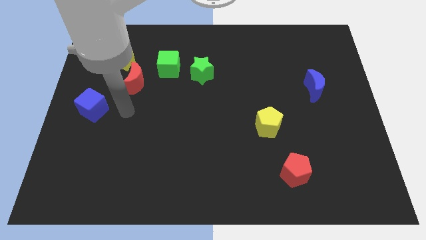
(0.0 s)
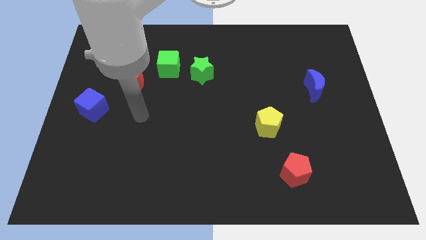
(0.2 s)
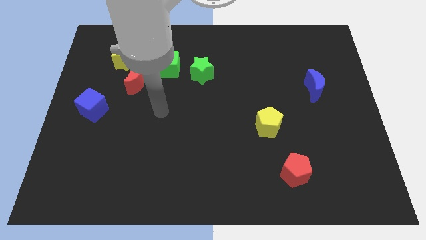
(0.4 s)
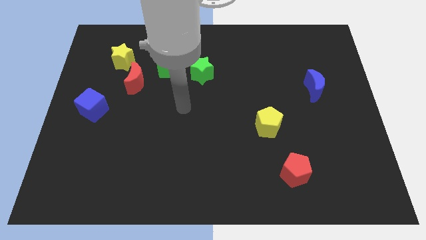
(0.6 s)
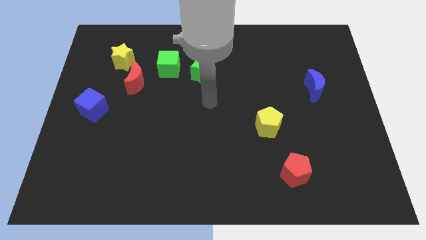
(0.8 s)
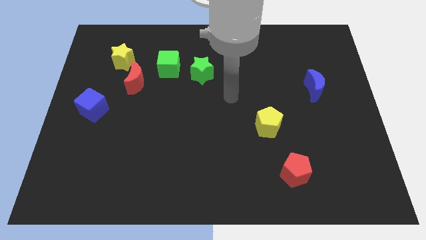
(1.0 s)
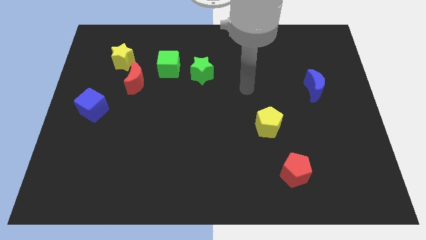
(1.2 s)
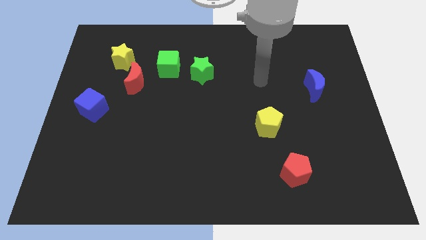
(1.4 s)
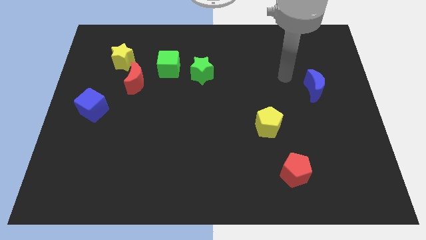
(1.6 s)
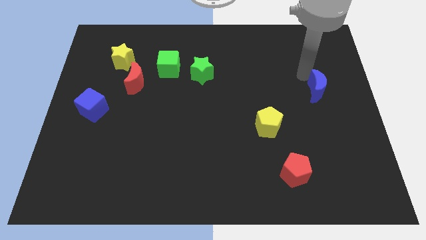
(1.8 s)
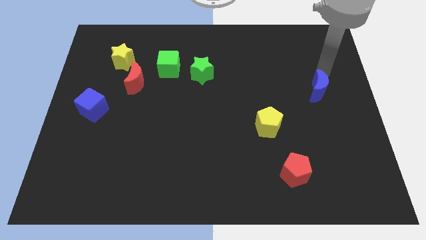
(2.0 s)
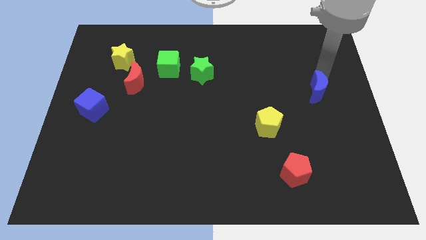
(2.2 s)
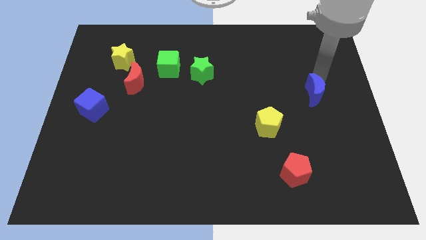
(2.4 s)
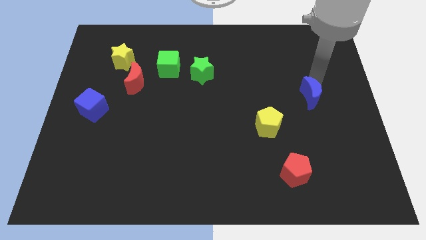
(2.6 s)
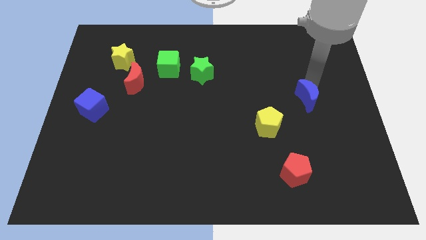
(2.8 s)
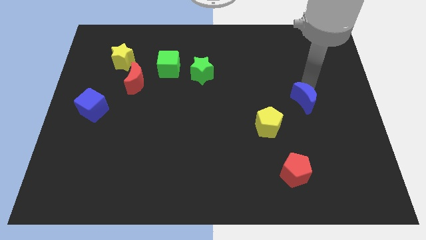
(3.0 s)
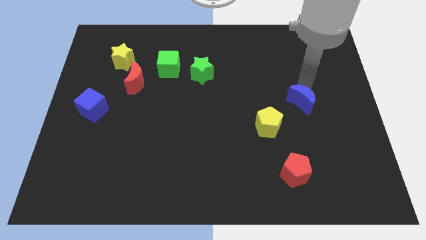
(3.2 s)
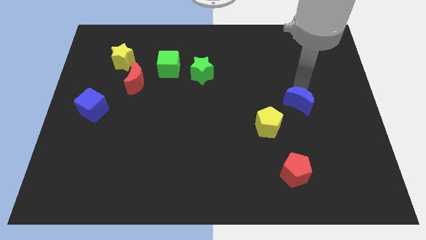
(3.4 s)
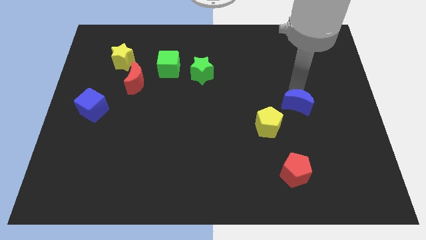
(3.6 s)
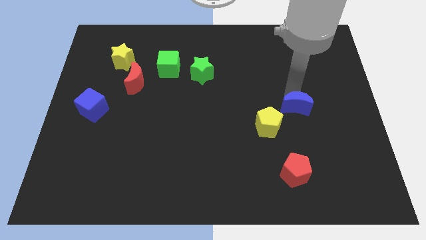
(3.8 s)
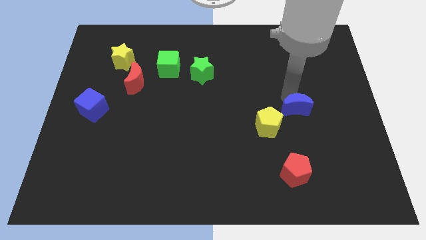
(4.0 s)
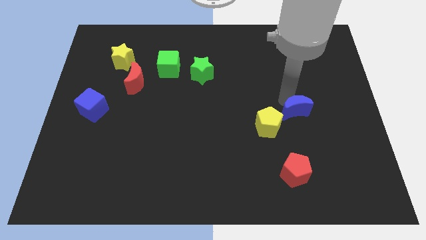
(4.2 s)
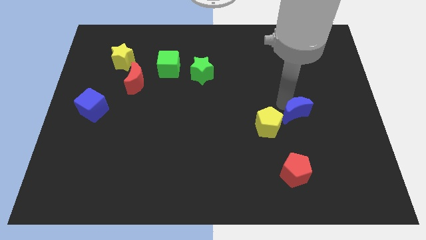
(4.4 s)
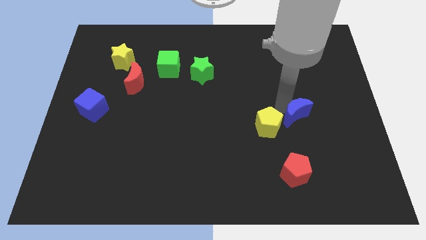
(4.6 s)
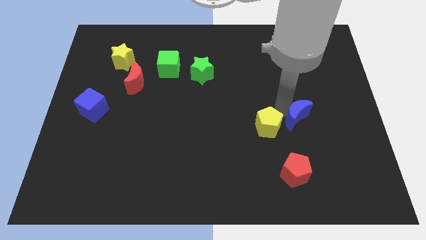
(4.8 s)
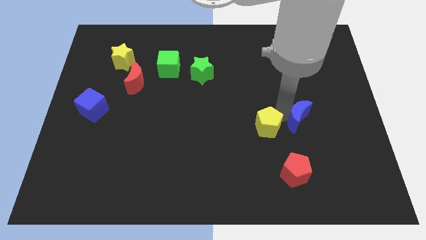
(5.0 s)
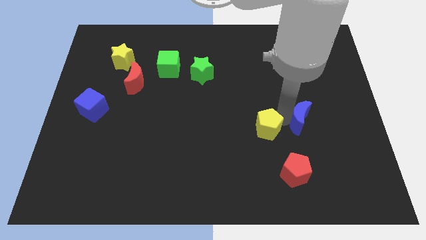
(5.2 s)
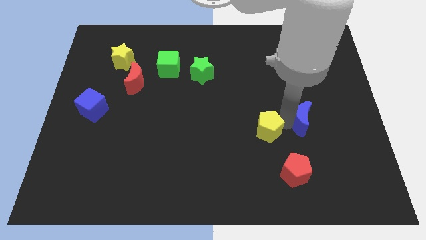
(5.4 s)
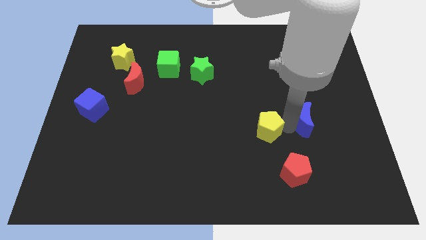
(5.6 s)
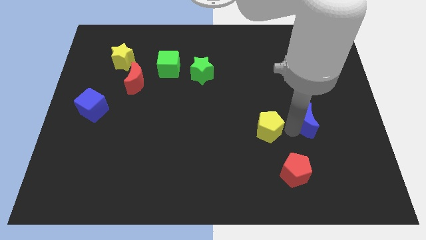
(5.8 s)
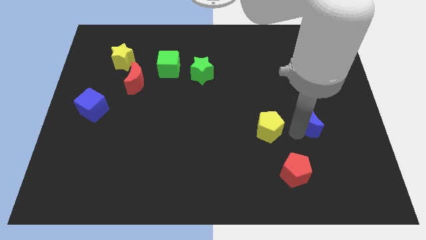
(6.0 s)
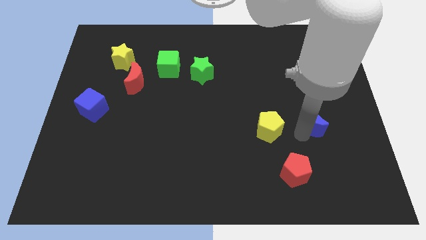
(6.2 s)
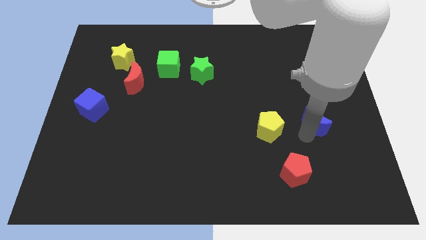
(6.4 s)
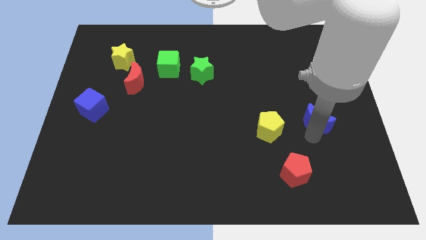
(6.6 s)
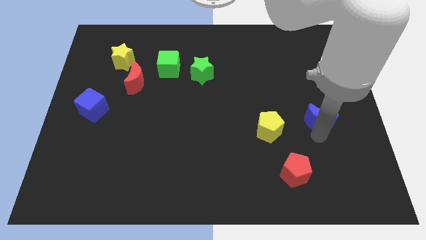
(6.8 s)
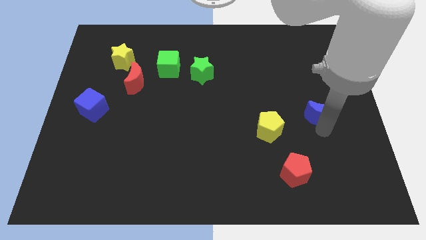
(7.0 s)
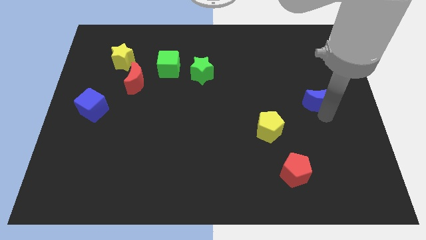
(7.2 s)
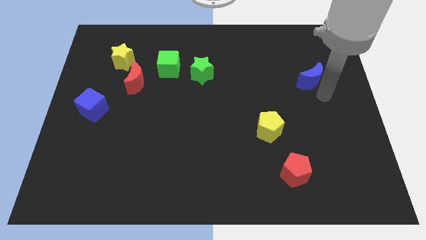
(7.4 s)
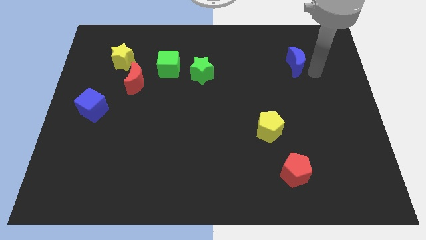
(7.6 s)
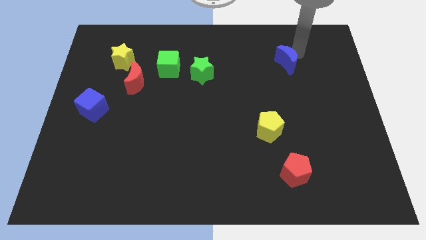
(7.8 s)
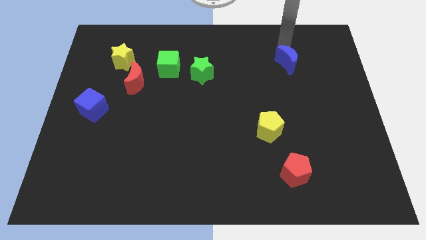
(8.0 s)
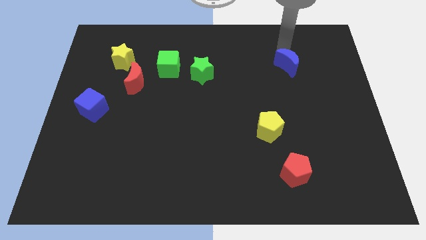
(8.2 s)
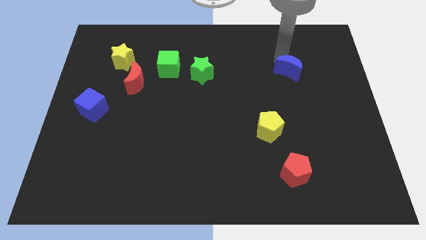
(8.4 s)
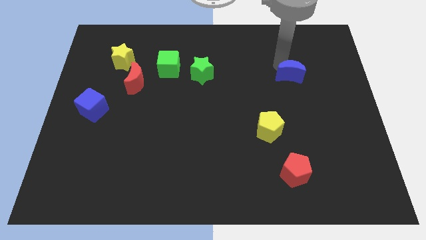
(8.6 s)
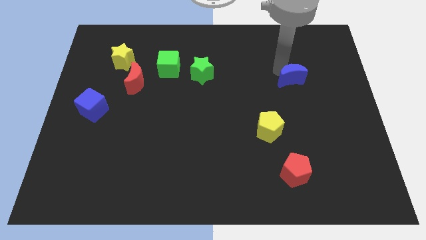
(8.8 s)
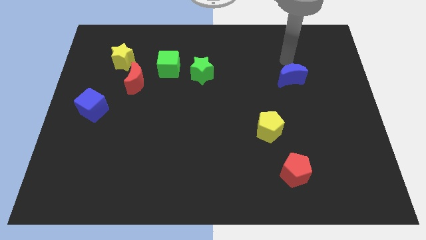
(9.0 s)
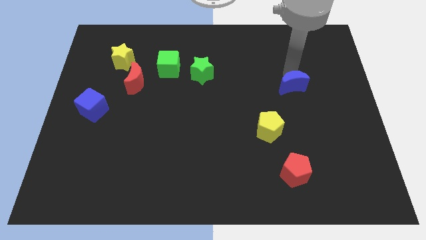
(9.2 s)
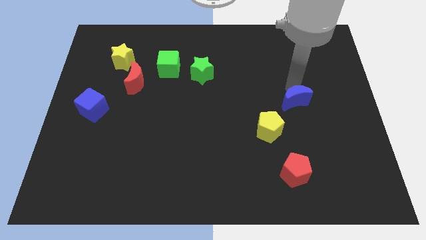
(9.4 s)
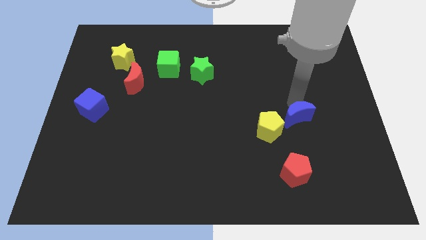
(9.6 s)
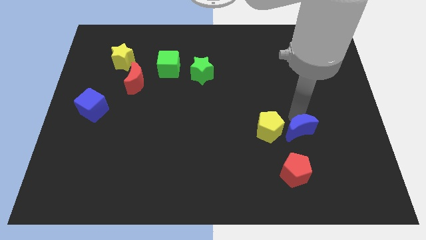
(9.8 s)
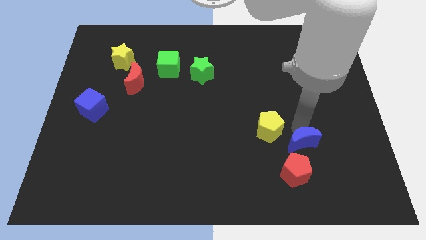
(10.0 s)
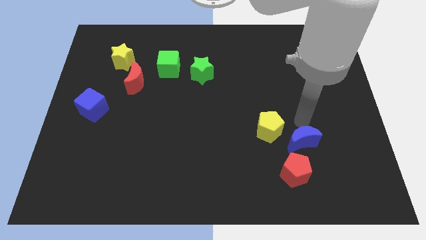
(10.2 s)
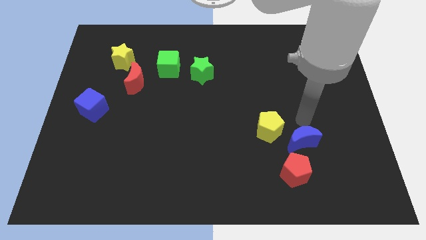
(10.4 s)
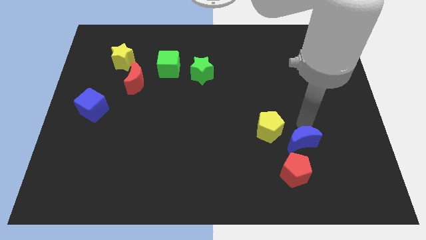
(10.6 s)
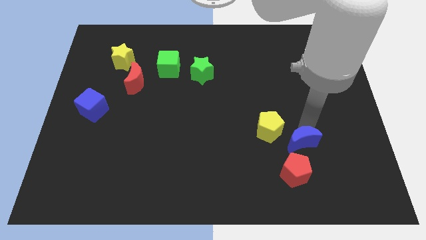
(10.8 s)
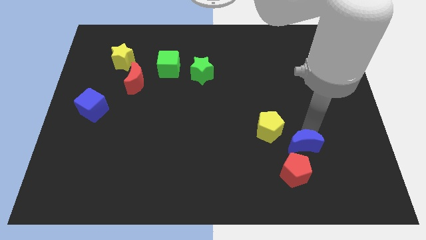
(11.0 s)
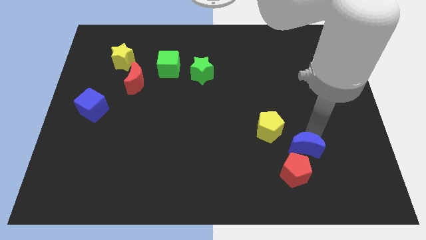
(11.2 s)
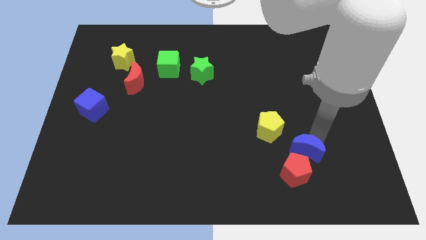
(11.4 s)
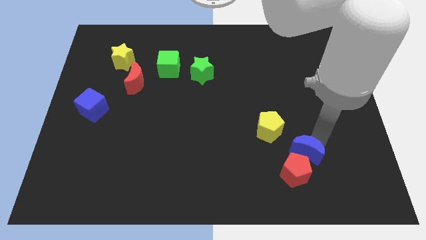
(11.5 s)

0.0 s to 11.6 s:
slide the blue moon towards the red pentagon

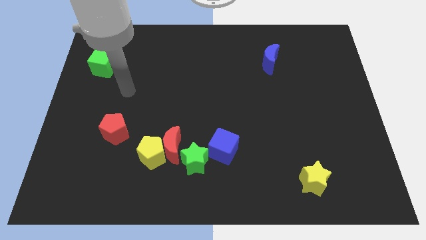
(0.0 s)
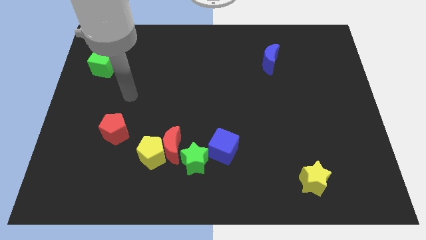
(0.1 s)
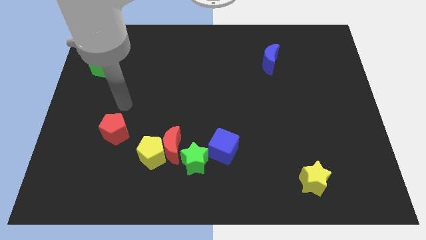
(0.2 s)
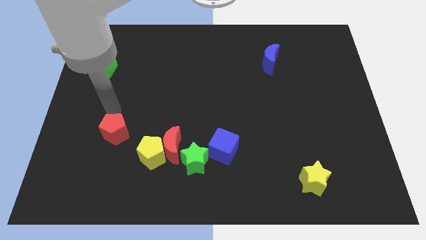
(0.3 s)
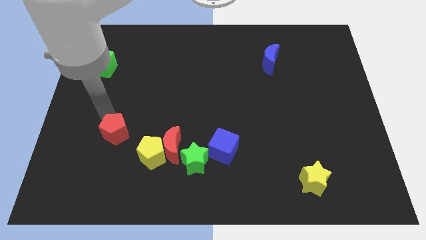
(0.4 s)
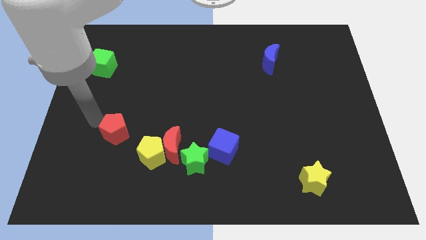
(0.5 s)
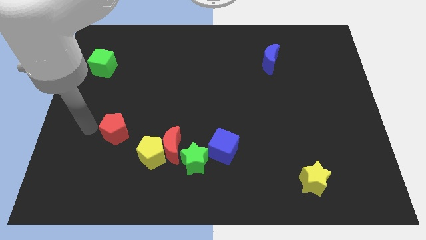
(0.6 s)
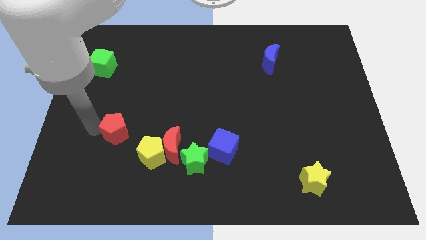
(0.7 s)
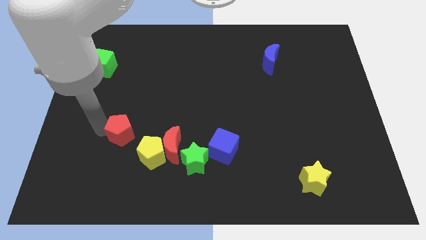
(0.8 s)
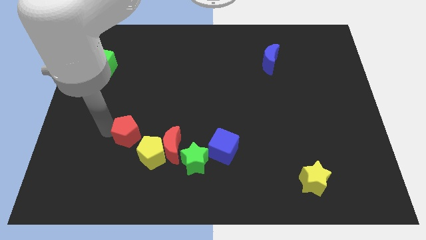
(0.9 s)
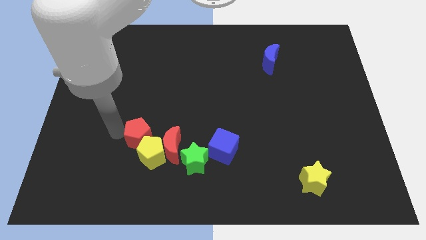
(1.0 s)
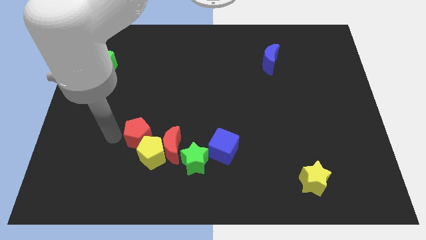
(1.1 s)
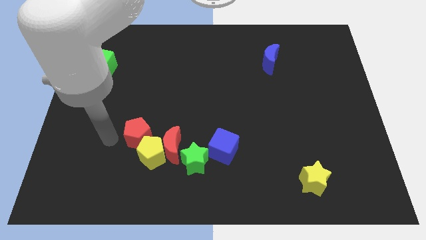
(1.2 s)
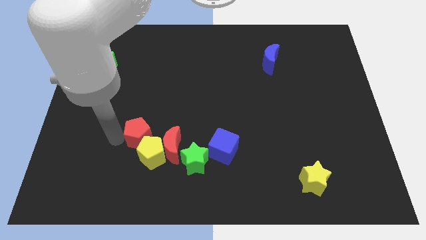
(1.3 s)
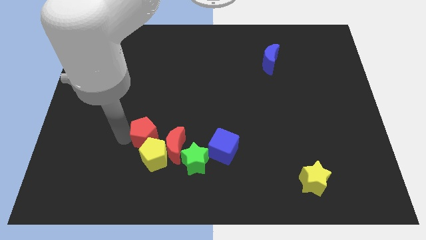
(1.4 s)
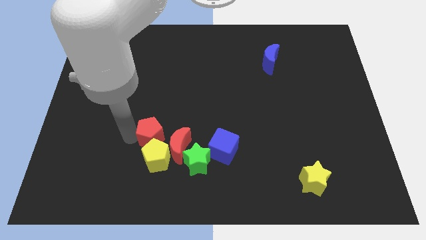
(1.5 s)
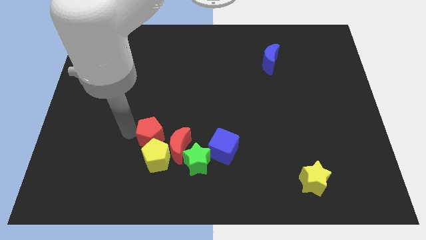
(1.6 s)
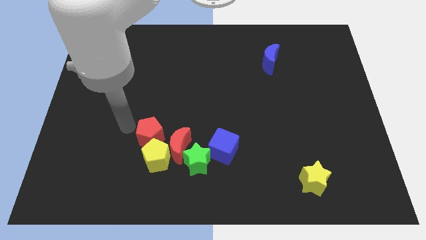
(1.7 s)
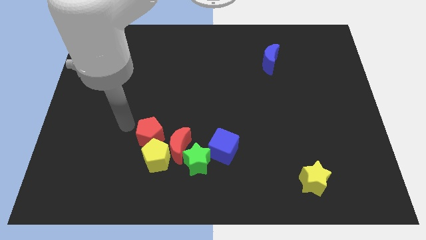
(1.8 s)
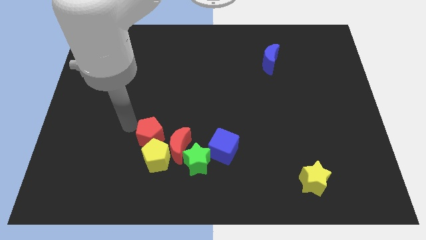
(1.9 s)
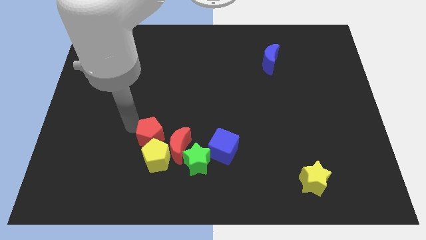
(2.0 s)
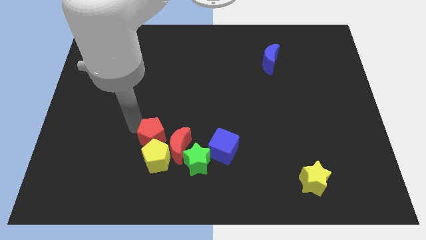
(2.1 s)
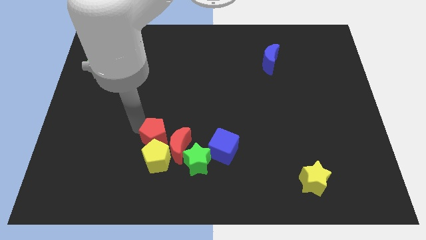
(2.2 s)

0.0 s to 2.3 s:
move the red pentagon close to the red moon
